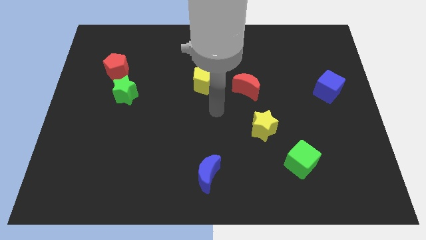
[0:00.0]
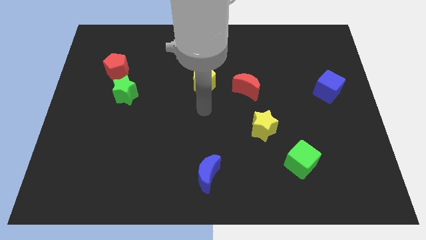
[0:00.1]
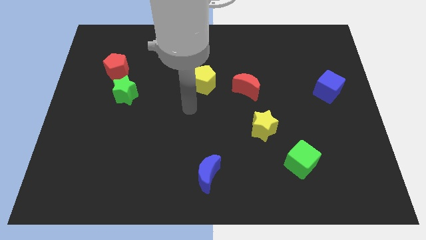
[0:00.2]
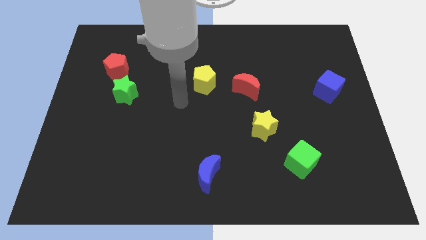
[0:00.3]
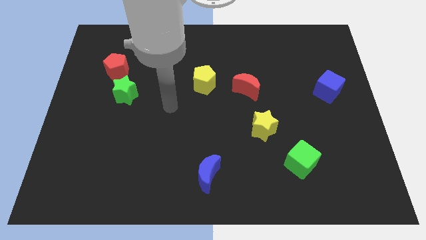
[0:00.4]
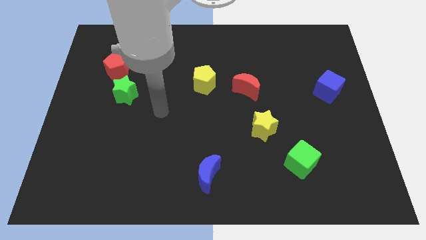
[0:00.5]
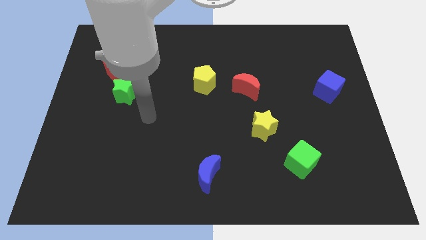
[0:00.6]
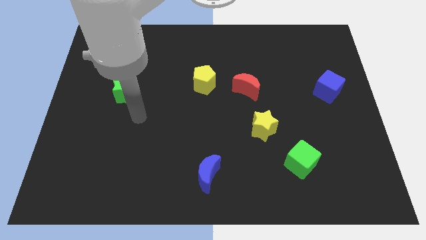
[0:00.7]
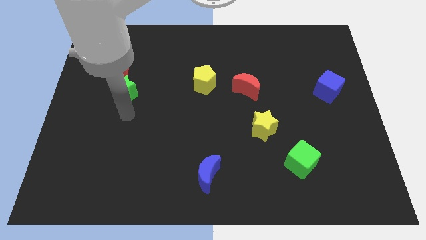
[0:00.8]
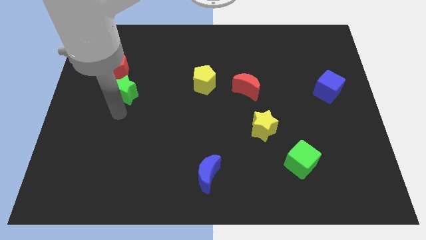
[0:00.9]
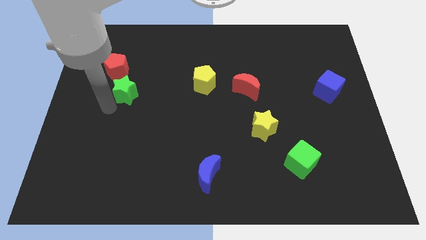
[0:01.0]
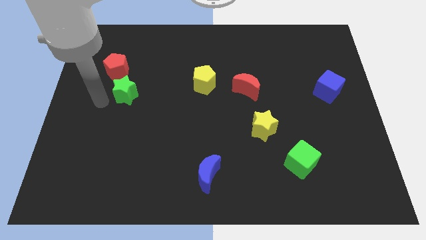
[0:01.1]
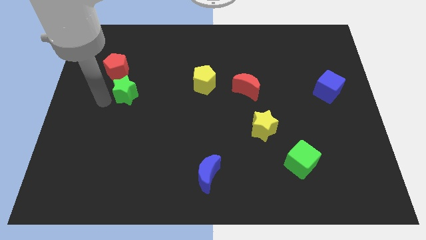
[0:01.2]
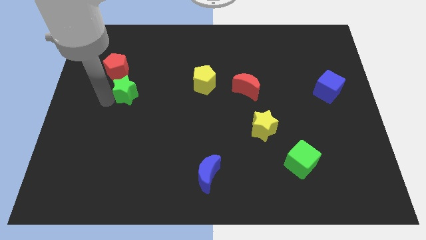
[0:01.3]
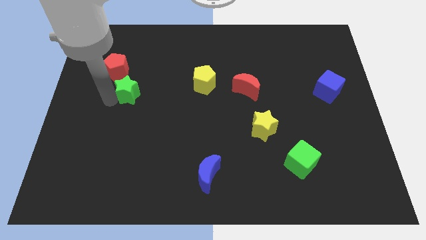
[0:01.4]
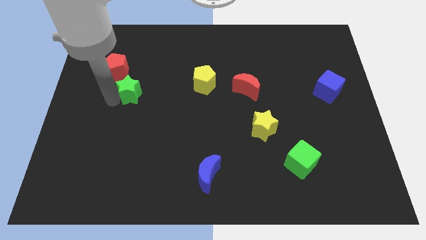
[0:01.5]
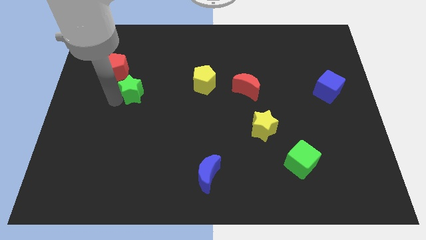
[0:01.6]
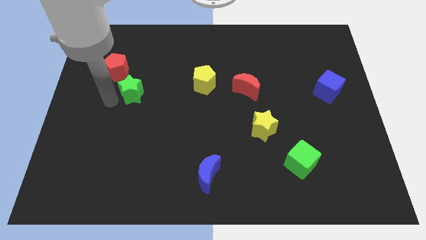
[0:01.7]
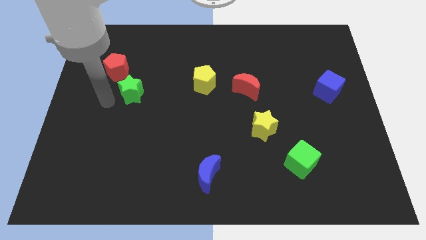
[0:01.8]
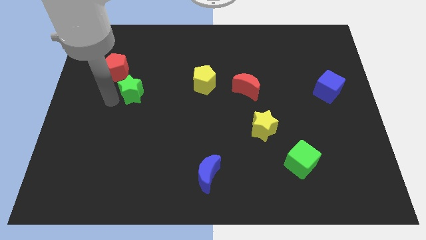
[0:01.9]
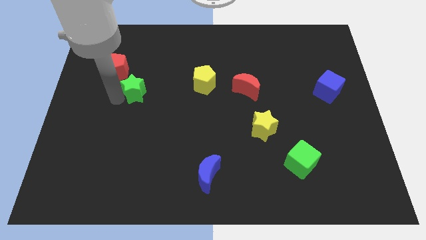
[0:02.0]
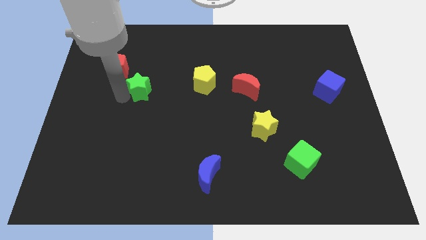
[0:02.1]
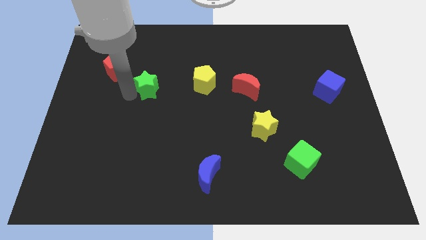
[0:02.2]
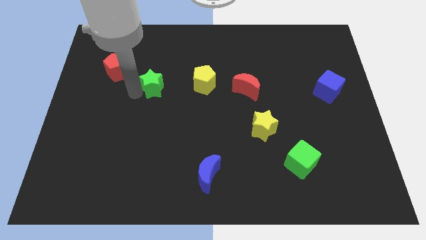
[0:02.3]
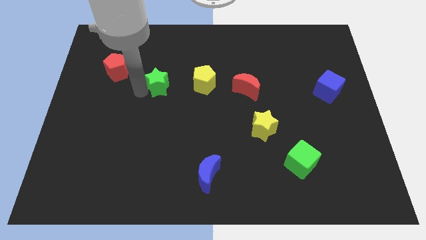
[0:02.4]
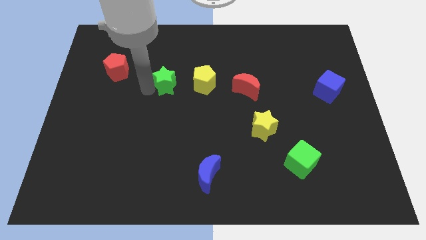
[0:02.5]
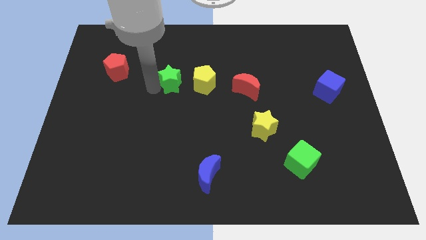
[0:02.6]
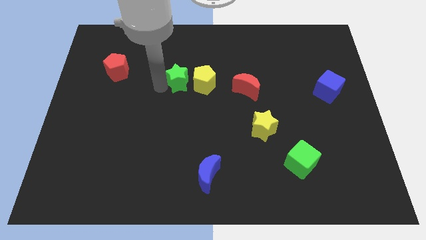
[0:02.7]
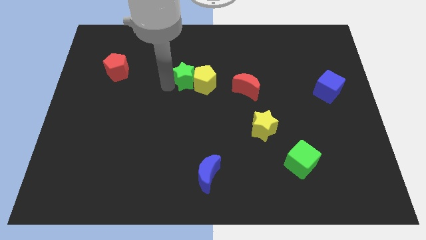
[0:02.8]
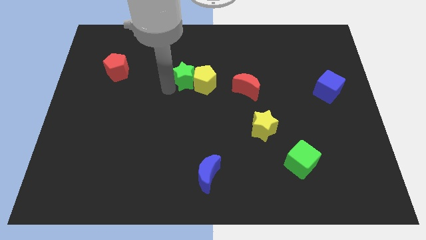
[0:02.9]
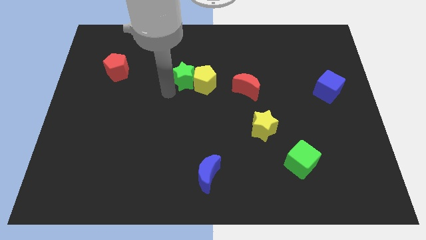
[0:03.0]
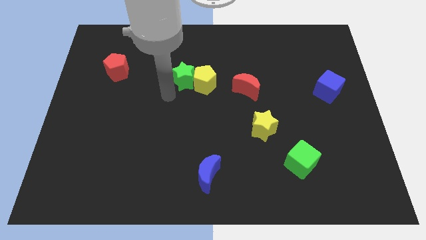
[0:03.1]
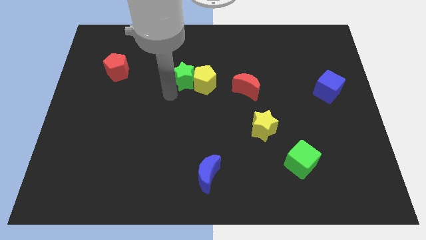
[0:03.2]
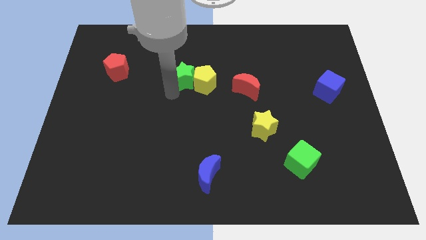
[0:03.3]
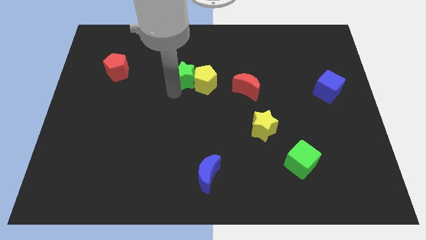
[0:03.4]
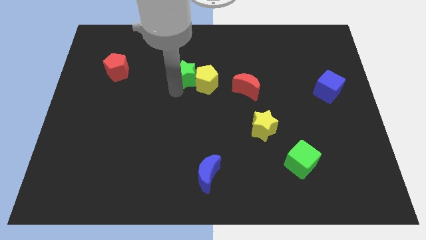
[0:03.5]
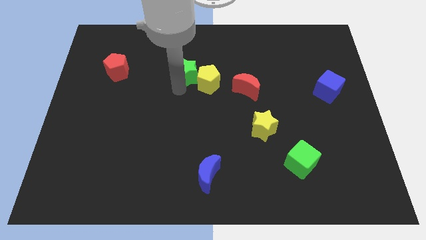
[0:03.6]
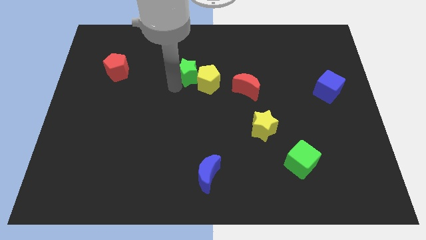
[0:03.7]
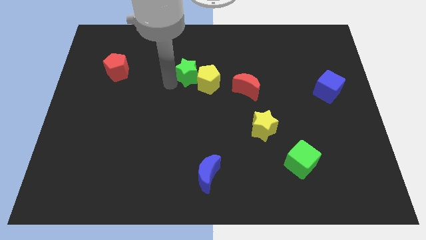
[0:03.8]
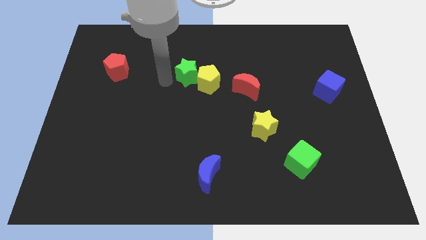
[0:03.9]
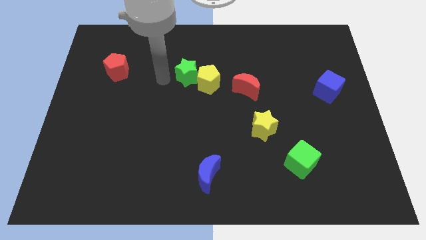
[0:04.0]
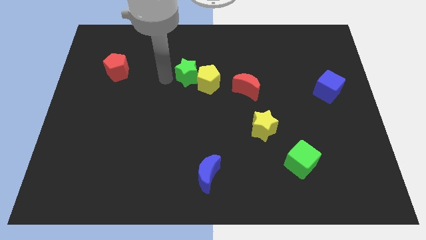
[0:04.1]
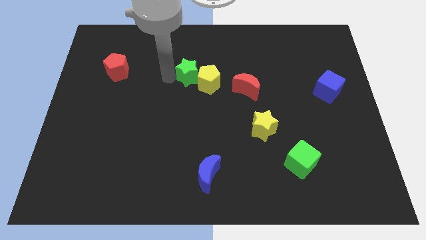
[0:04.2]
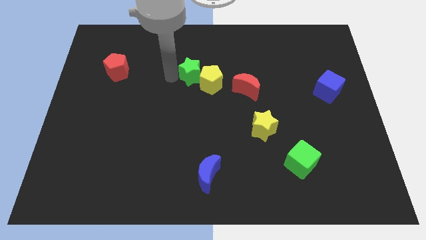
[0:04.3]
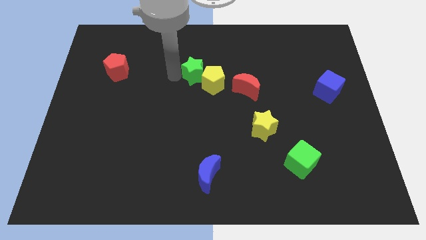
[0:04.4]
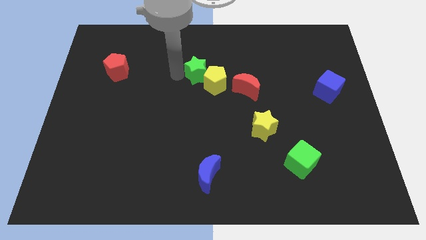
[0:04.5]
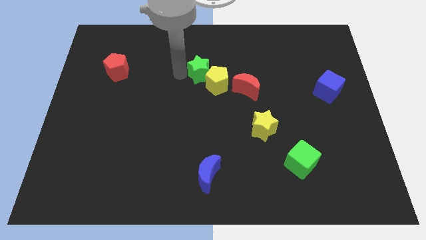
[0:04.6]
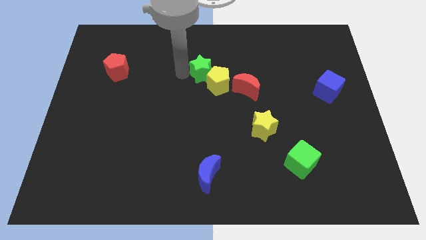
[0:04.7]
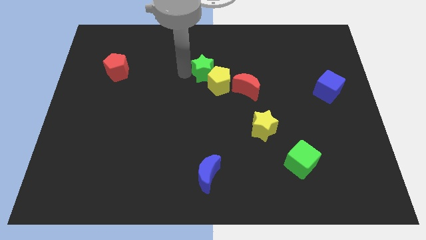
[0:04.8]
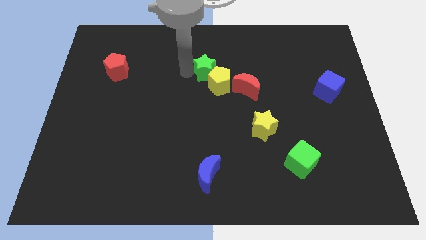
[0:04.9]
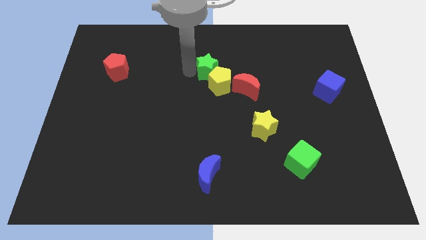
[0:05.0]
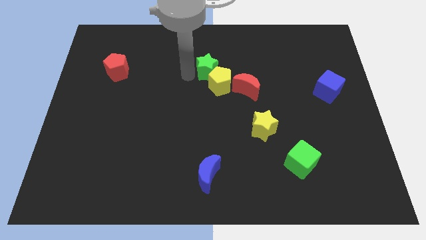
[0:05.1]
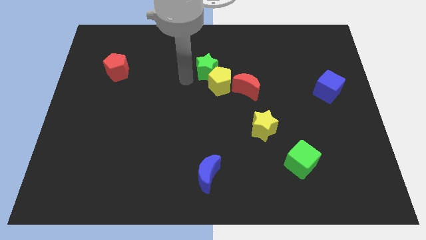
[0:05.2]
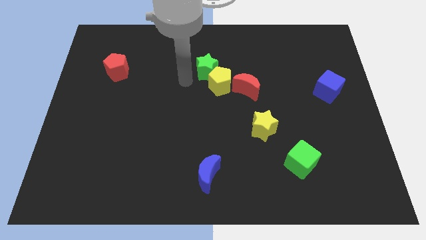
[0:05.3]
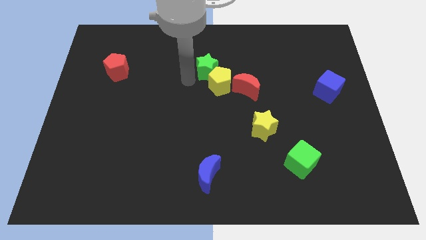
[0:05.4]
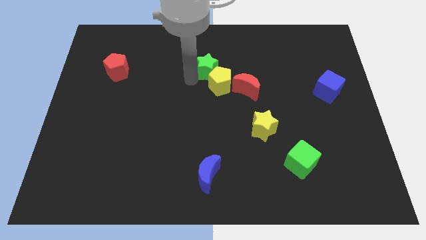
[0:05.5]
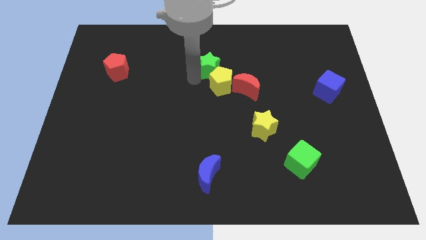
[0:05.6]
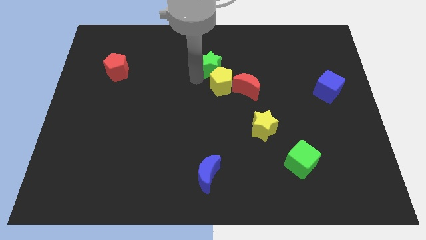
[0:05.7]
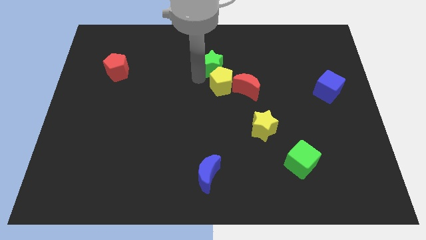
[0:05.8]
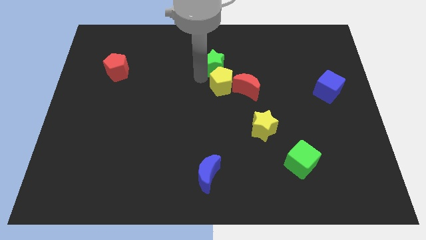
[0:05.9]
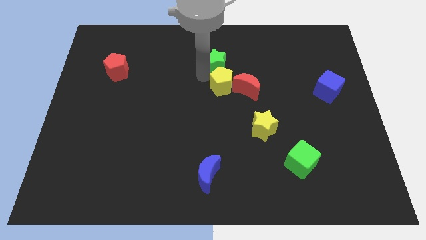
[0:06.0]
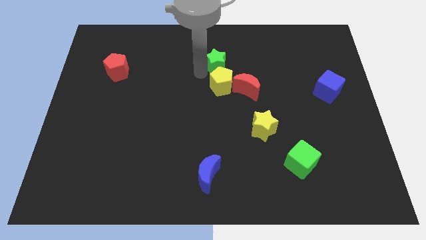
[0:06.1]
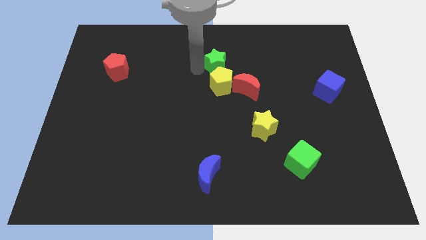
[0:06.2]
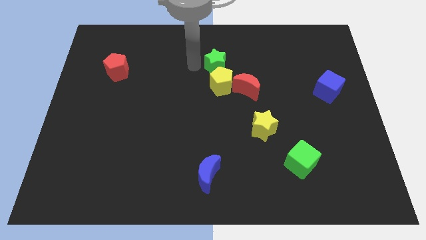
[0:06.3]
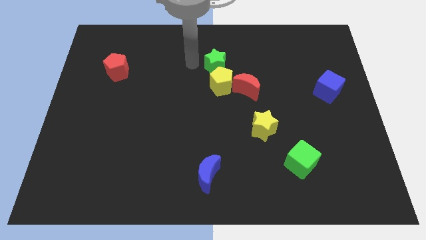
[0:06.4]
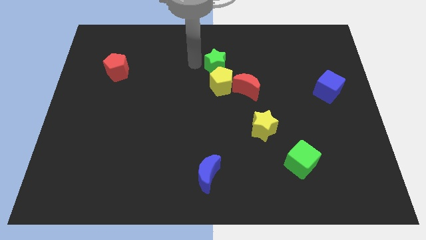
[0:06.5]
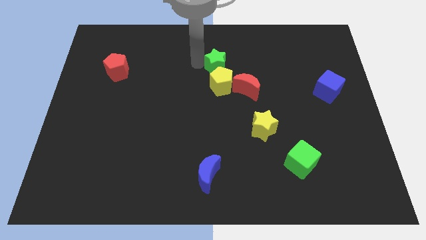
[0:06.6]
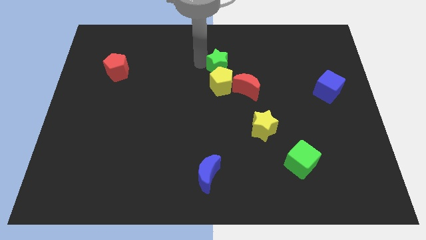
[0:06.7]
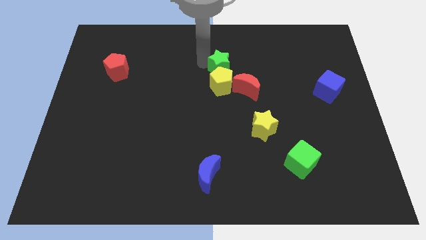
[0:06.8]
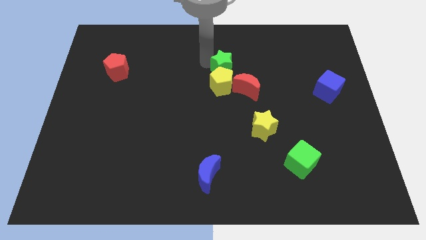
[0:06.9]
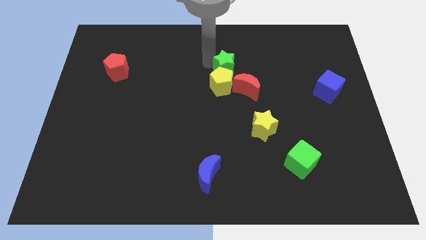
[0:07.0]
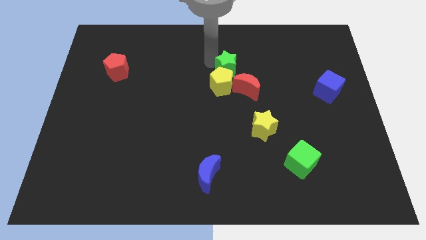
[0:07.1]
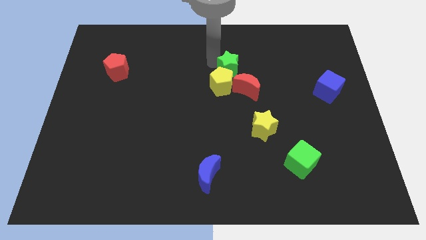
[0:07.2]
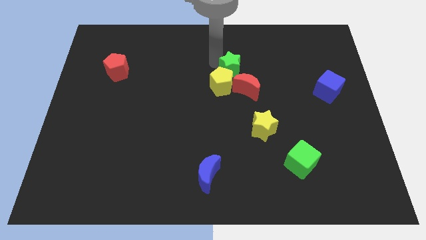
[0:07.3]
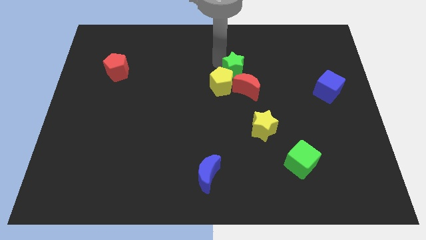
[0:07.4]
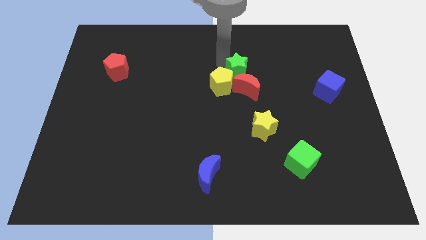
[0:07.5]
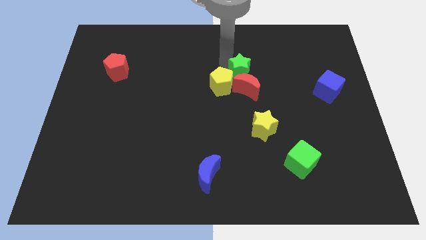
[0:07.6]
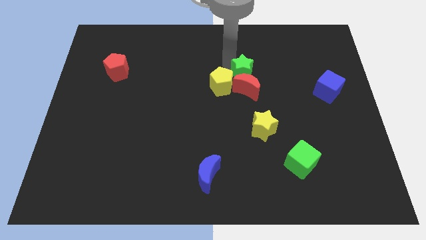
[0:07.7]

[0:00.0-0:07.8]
push the green star diagonally up and to the right of the red moon
